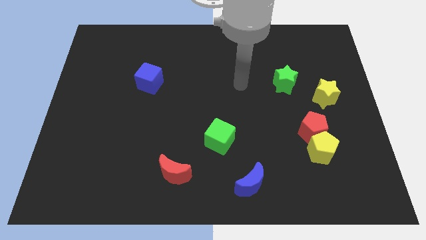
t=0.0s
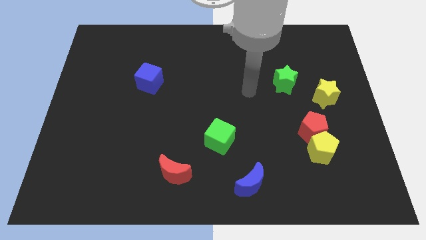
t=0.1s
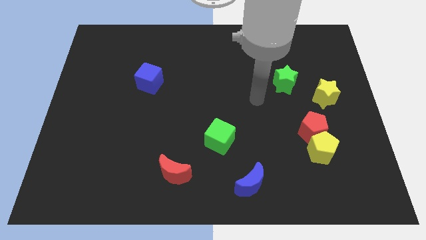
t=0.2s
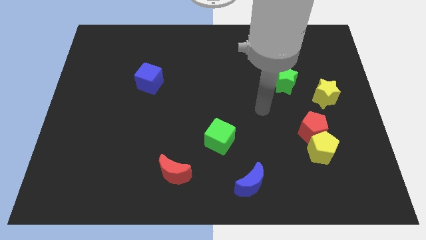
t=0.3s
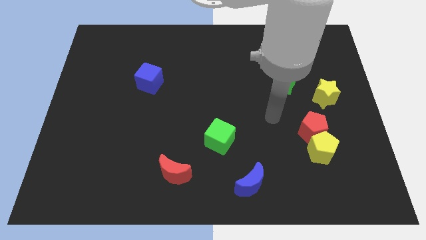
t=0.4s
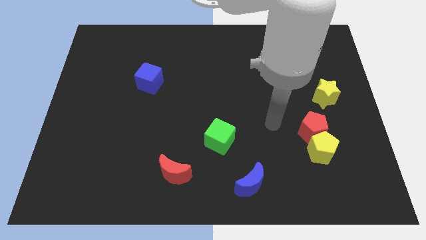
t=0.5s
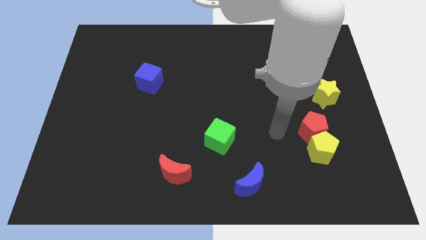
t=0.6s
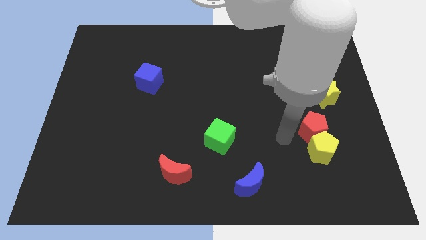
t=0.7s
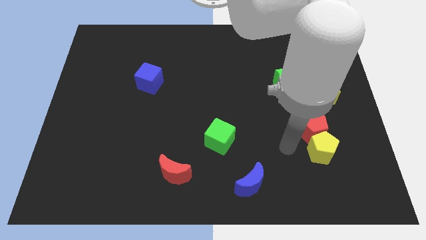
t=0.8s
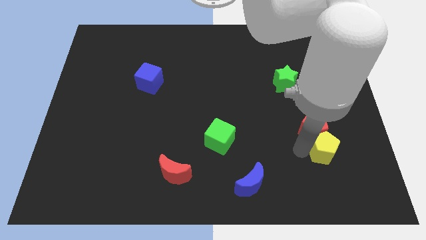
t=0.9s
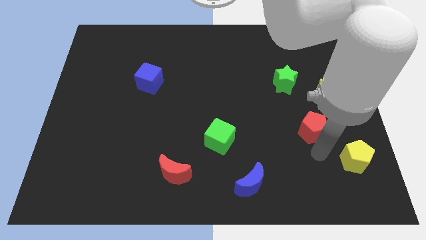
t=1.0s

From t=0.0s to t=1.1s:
separate the red pentagon from the yellow pentagon

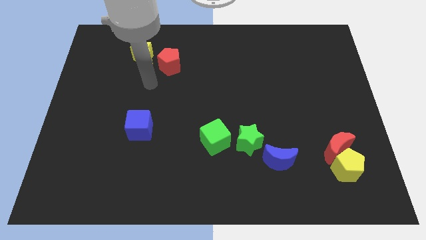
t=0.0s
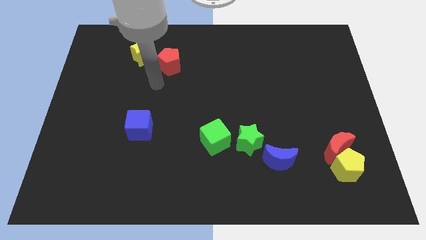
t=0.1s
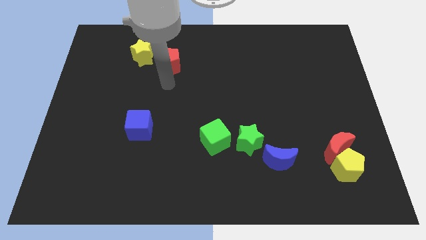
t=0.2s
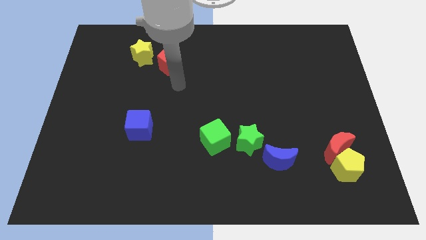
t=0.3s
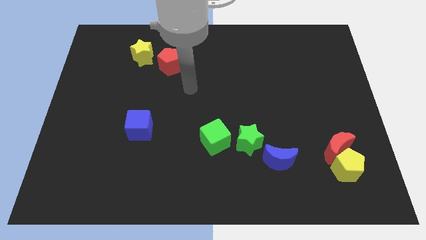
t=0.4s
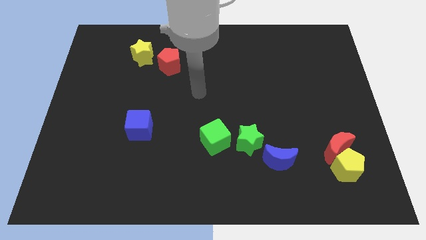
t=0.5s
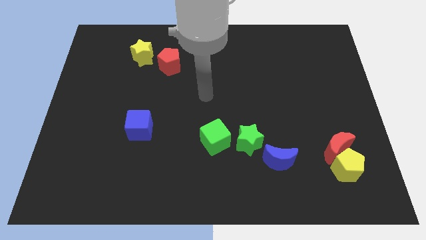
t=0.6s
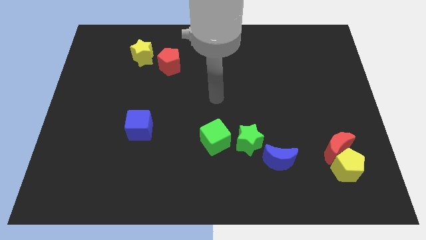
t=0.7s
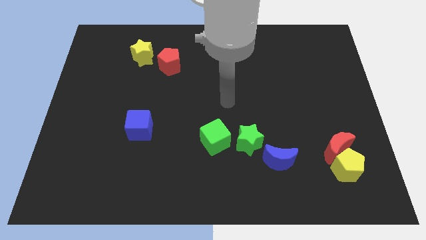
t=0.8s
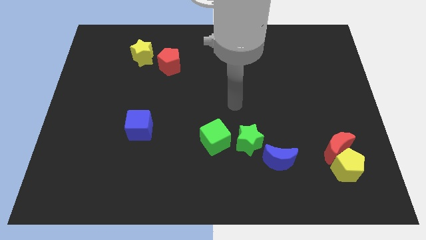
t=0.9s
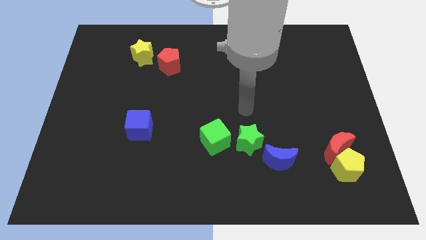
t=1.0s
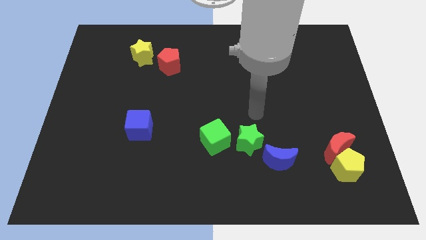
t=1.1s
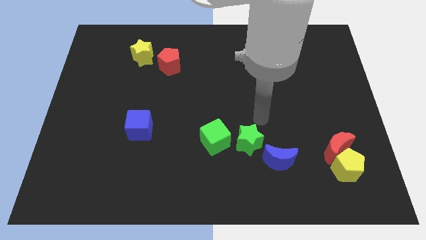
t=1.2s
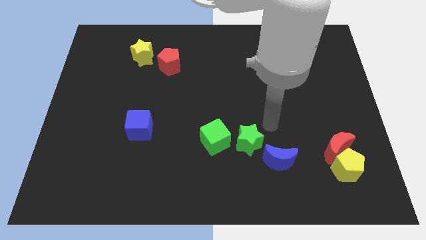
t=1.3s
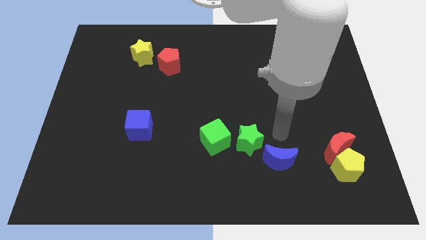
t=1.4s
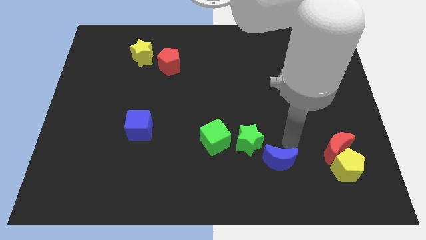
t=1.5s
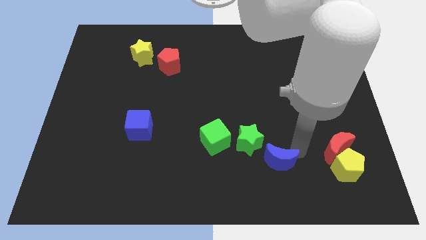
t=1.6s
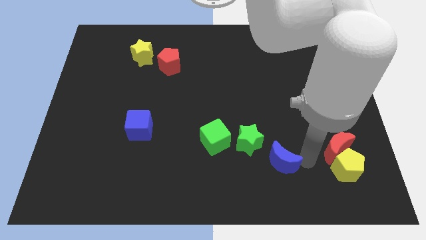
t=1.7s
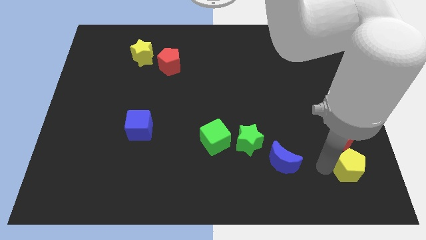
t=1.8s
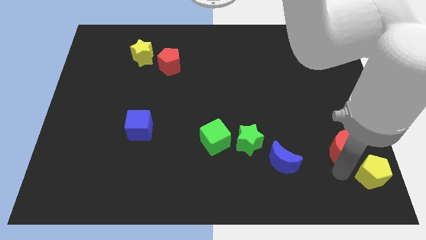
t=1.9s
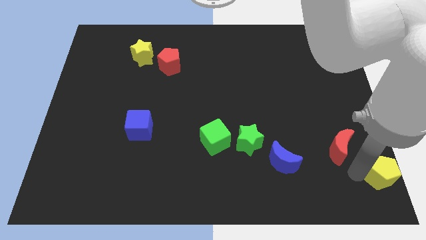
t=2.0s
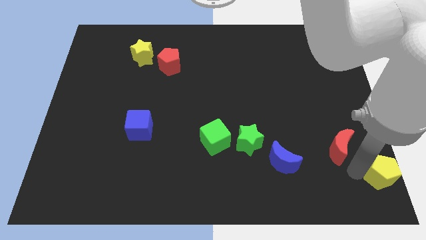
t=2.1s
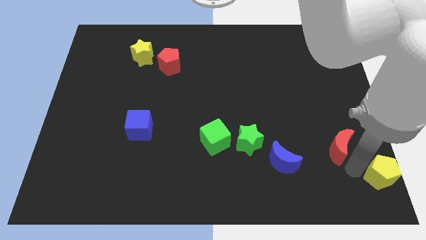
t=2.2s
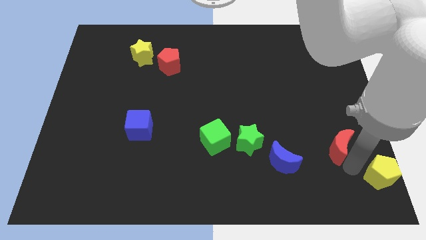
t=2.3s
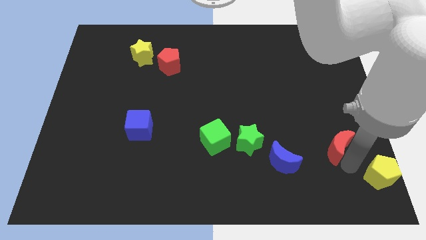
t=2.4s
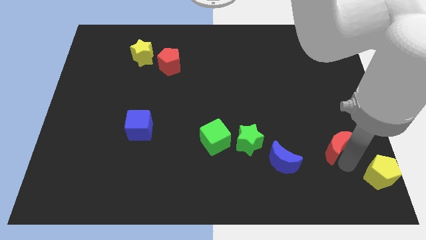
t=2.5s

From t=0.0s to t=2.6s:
pull the red moon apart from the yellow pentagon

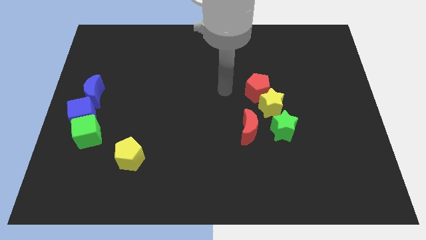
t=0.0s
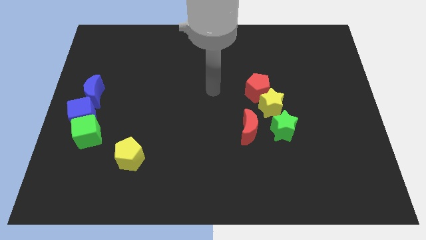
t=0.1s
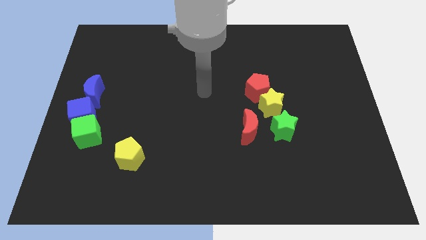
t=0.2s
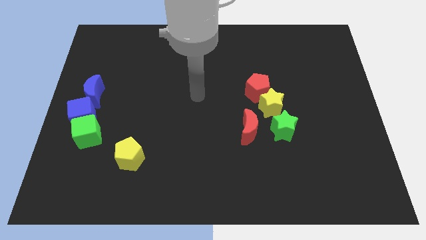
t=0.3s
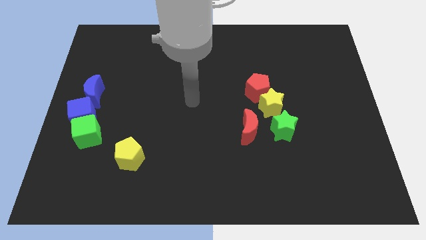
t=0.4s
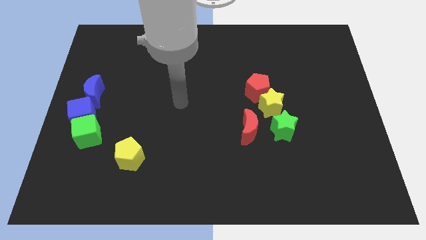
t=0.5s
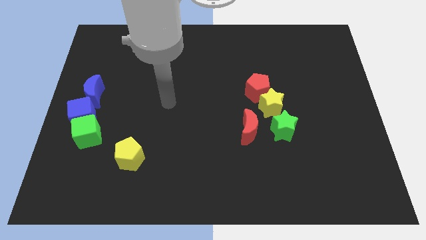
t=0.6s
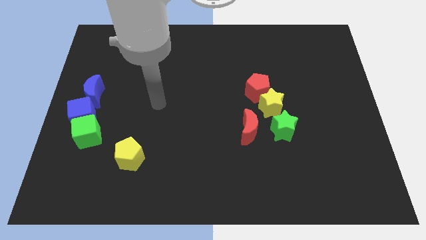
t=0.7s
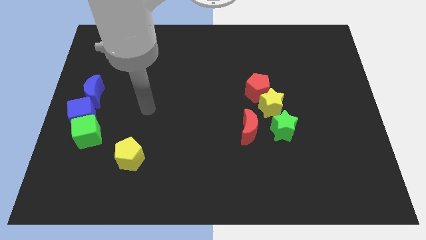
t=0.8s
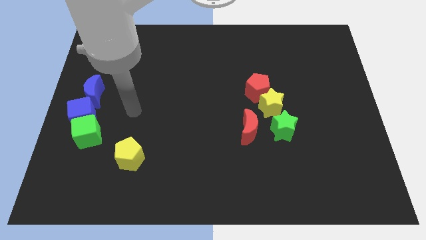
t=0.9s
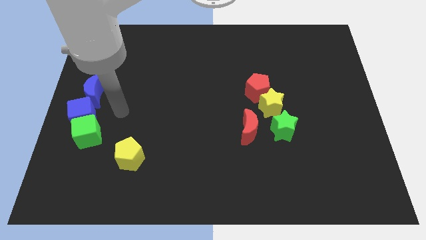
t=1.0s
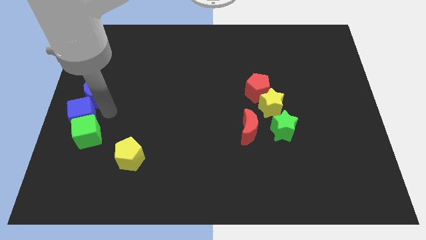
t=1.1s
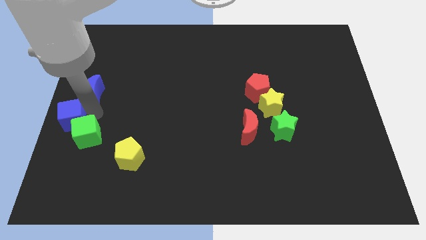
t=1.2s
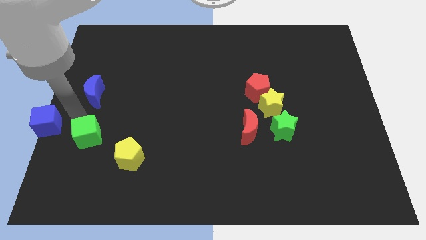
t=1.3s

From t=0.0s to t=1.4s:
pull the green cube apart from the blue cube

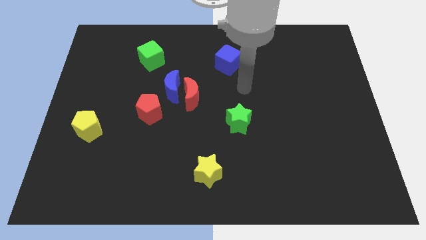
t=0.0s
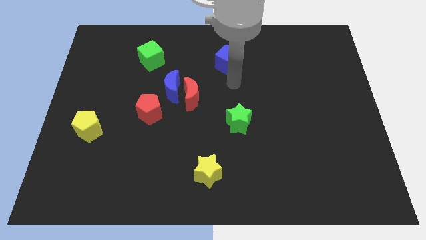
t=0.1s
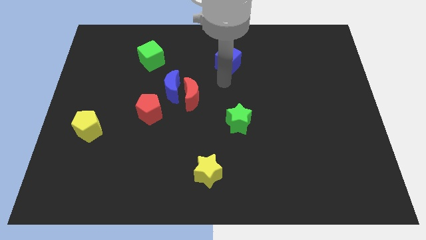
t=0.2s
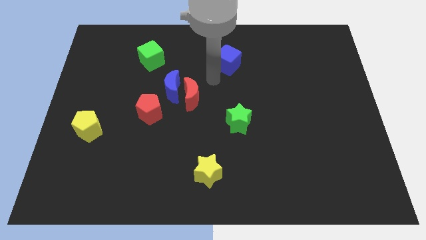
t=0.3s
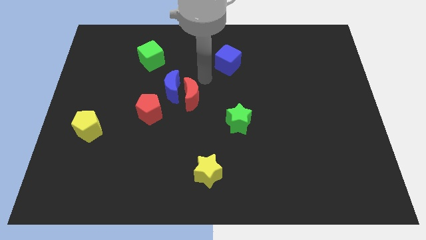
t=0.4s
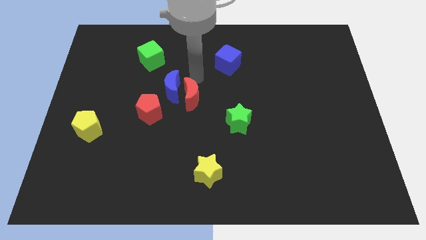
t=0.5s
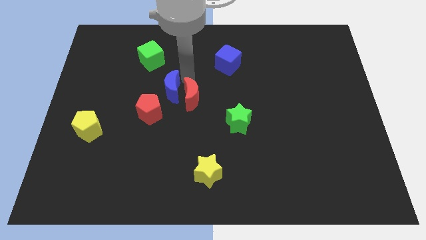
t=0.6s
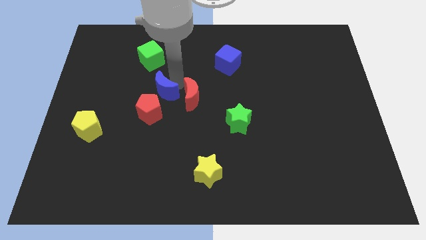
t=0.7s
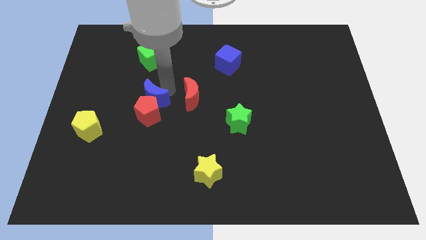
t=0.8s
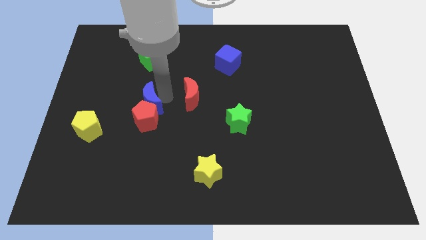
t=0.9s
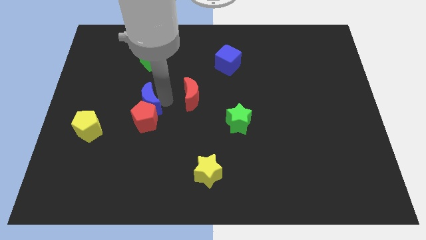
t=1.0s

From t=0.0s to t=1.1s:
pull the red moon apart from the blue moon

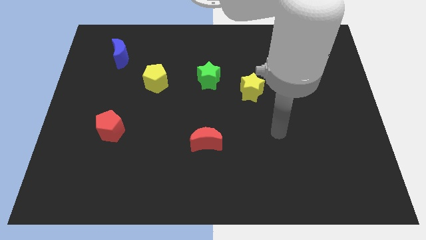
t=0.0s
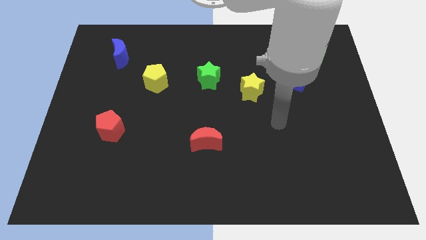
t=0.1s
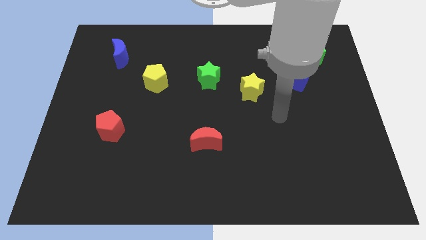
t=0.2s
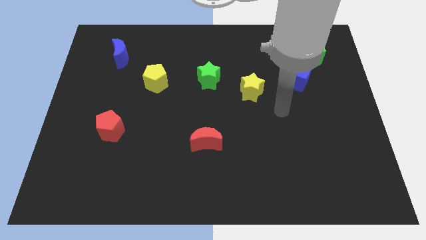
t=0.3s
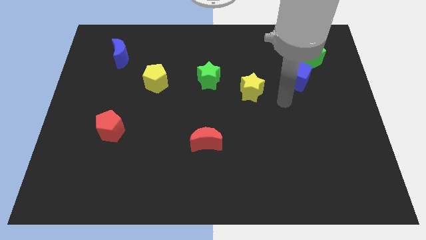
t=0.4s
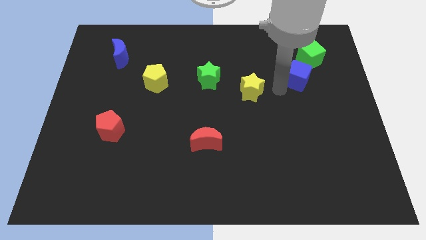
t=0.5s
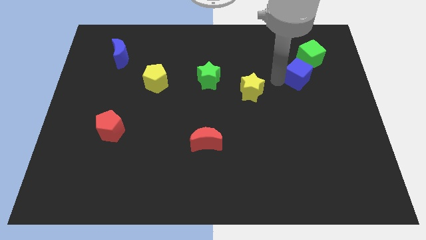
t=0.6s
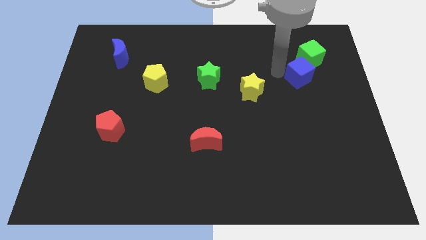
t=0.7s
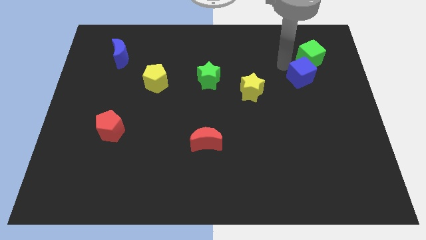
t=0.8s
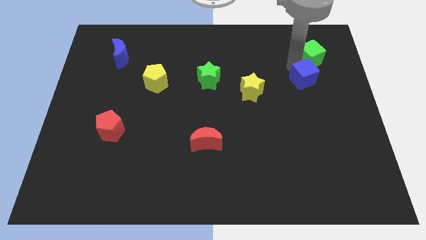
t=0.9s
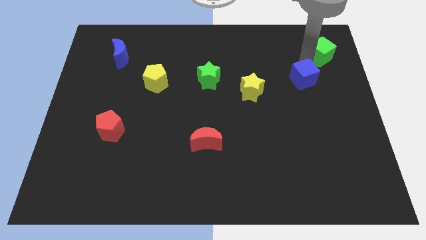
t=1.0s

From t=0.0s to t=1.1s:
separate the blue cube from the green cube

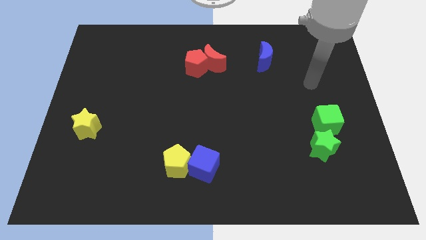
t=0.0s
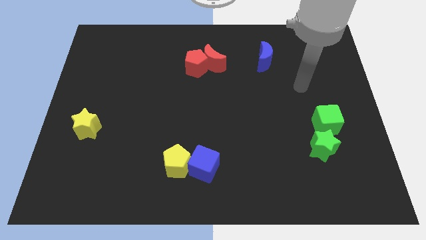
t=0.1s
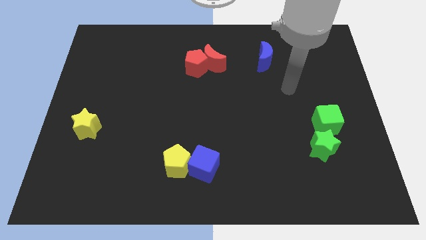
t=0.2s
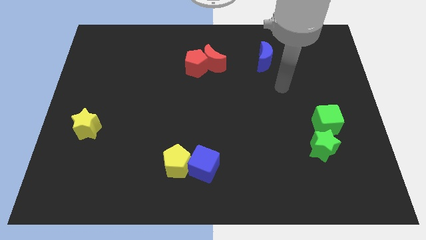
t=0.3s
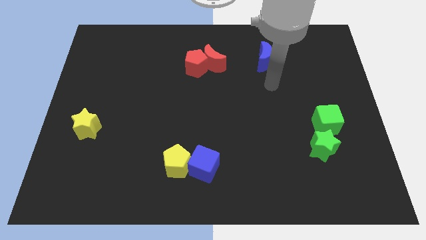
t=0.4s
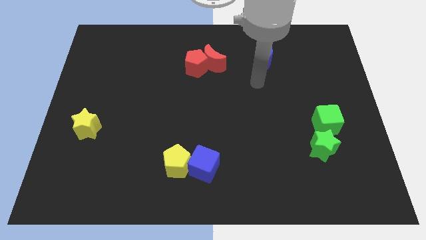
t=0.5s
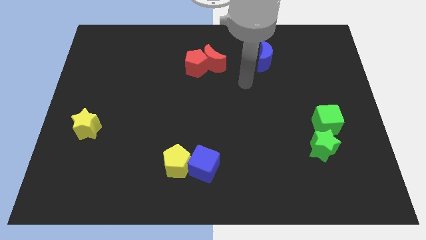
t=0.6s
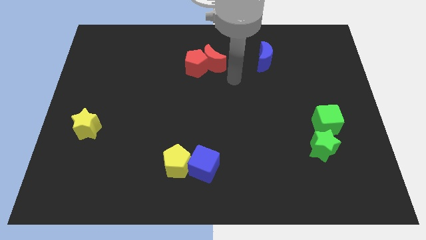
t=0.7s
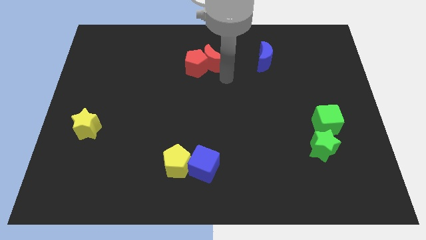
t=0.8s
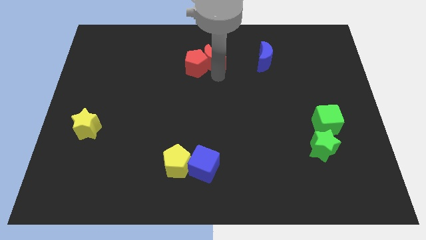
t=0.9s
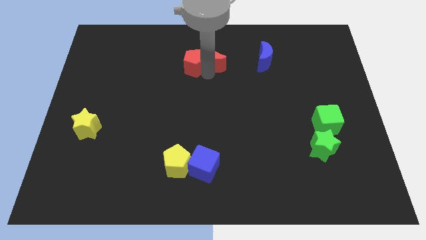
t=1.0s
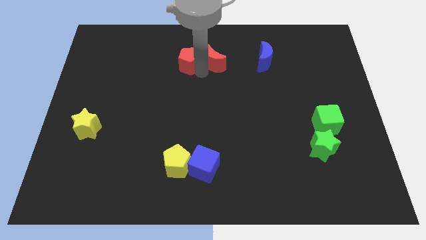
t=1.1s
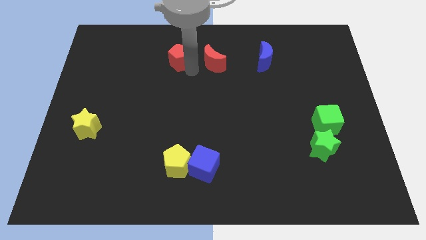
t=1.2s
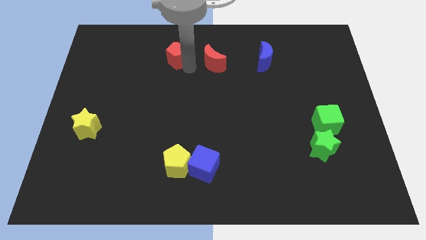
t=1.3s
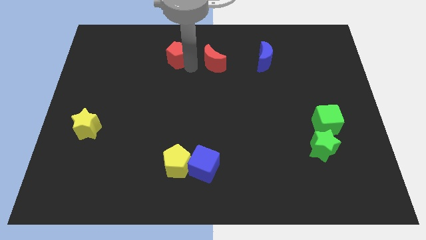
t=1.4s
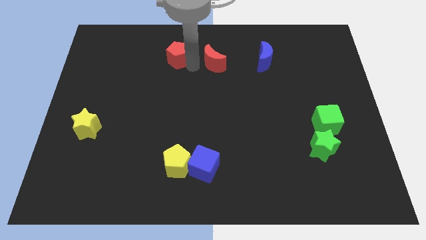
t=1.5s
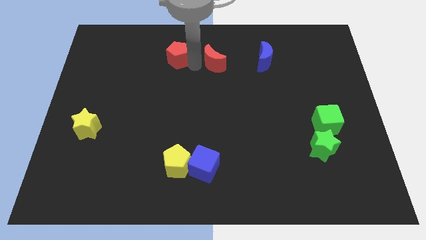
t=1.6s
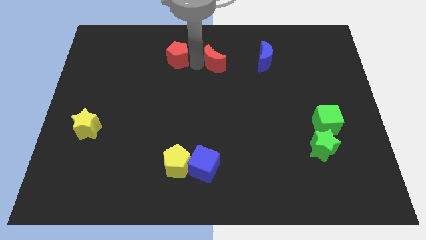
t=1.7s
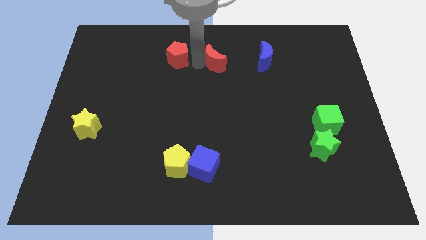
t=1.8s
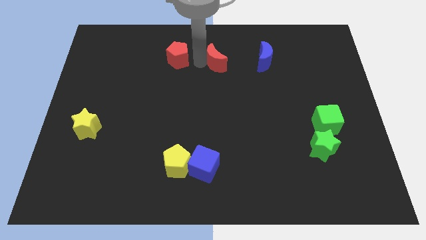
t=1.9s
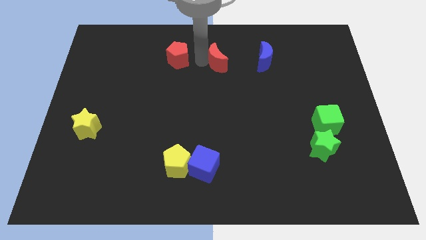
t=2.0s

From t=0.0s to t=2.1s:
separate the red moon from the red pentagon

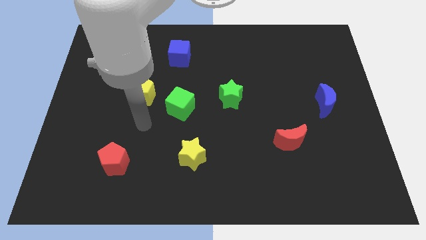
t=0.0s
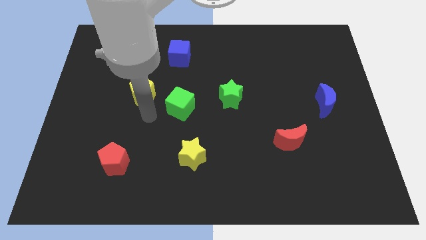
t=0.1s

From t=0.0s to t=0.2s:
pull the green cube apart from the yellow pentagon
